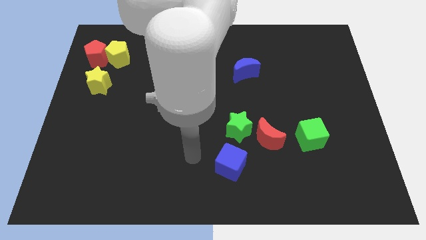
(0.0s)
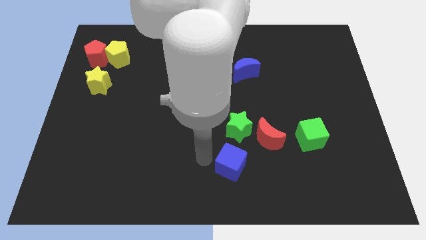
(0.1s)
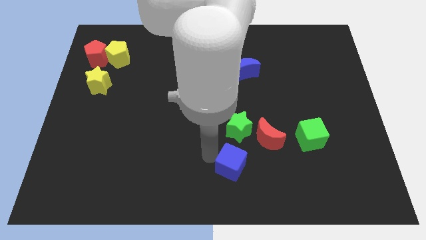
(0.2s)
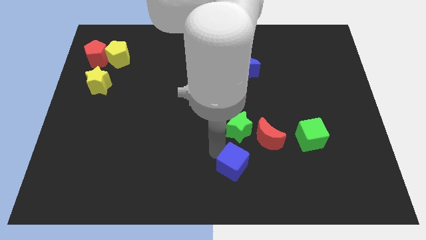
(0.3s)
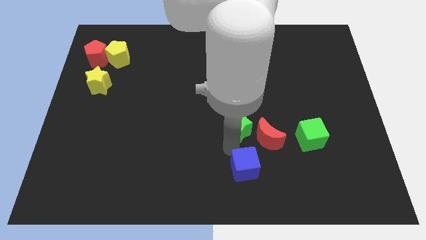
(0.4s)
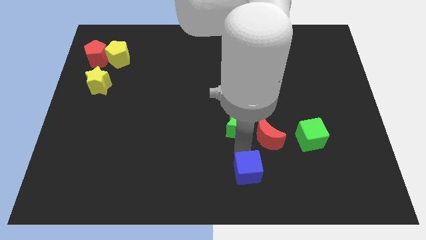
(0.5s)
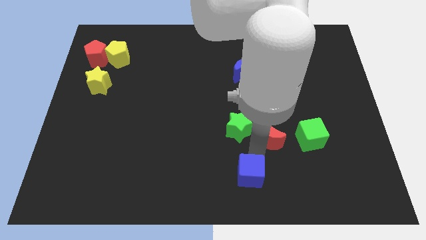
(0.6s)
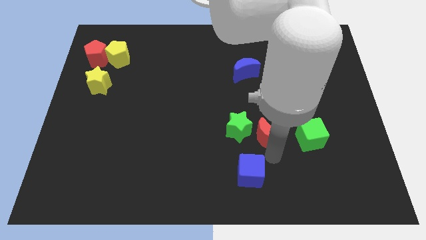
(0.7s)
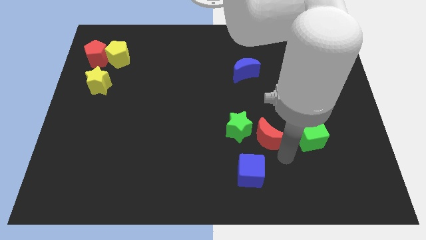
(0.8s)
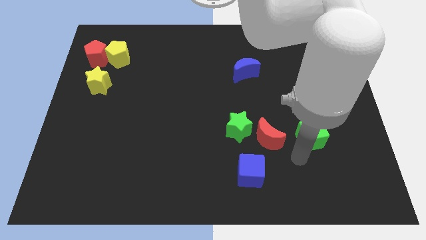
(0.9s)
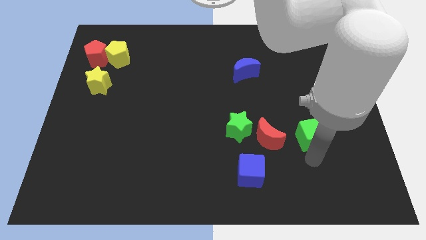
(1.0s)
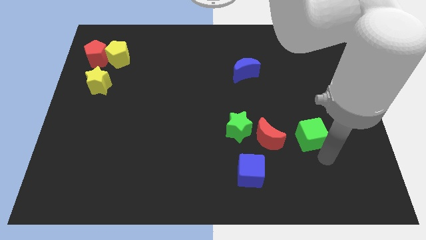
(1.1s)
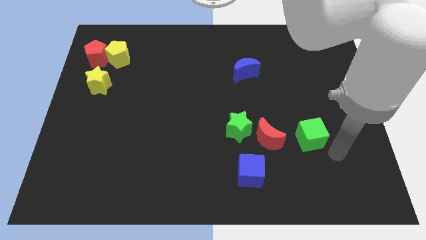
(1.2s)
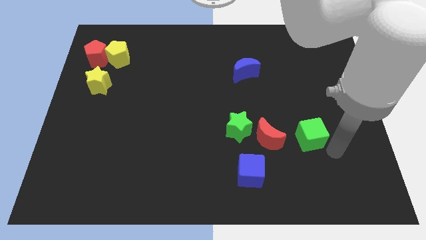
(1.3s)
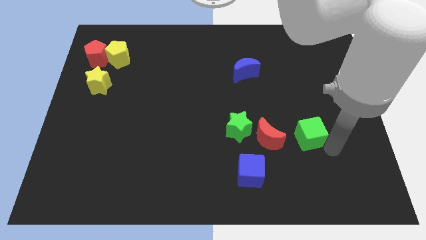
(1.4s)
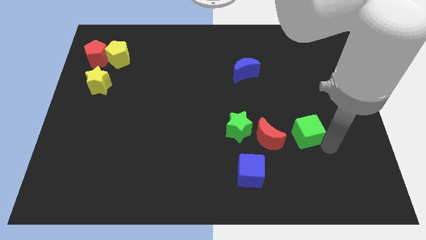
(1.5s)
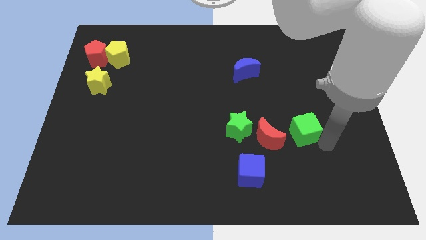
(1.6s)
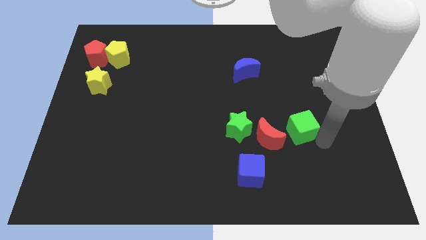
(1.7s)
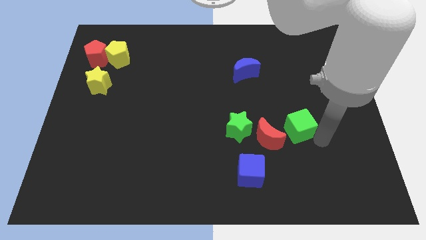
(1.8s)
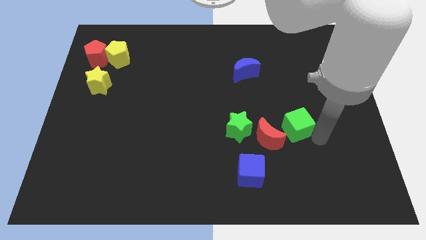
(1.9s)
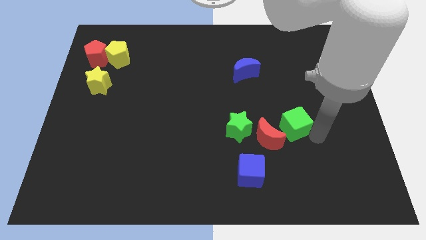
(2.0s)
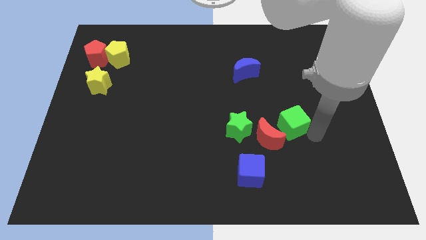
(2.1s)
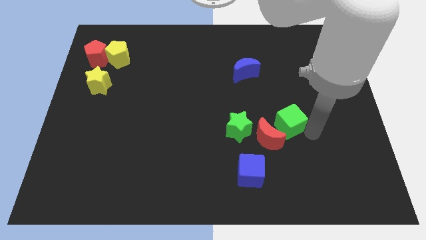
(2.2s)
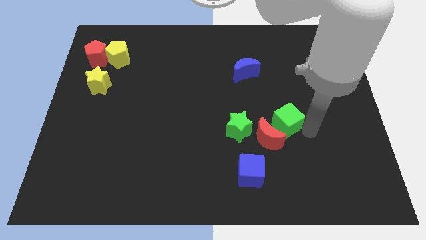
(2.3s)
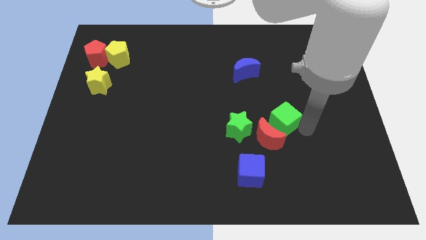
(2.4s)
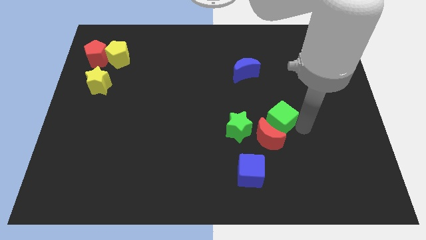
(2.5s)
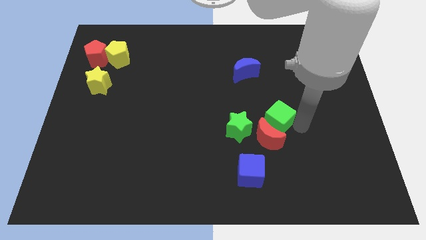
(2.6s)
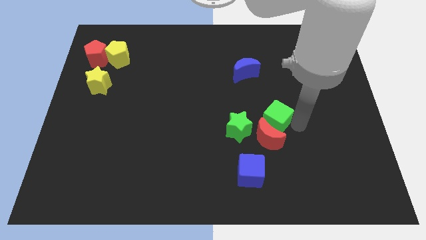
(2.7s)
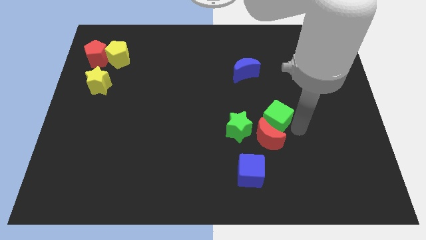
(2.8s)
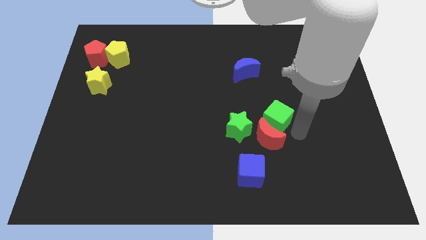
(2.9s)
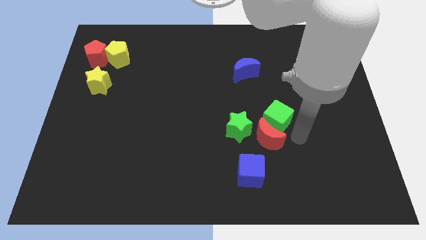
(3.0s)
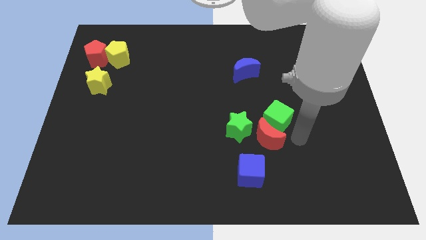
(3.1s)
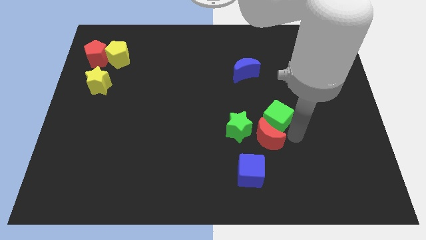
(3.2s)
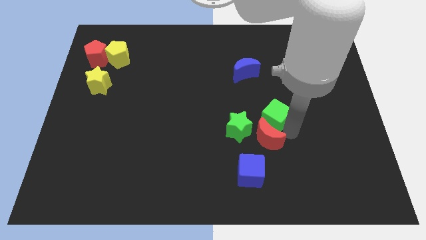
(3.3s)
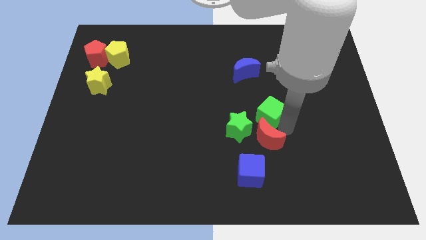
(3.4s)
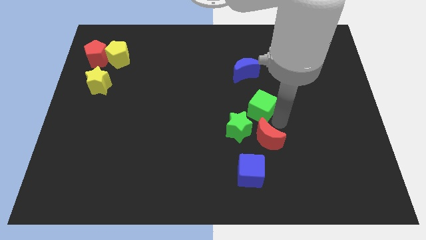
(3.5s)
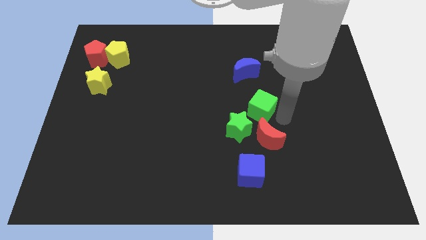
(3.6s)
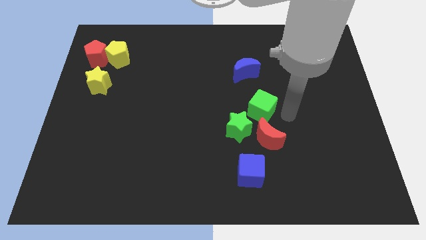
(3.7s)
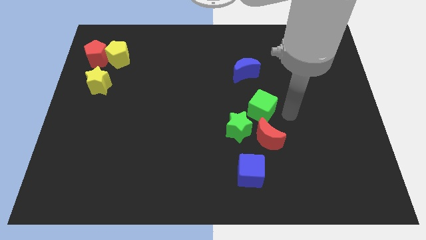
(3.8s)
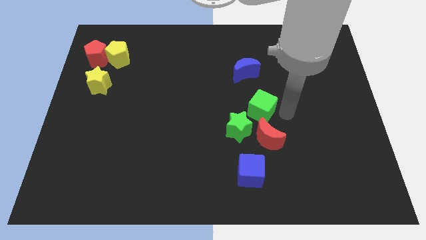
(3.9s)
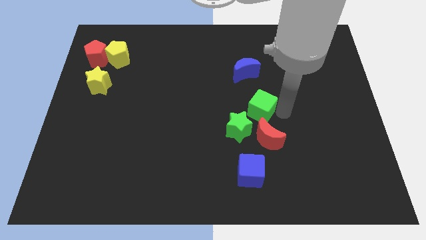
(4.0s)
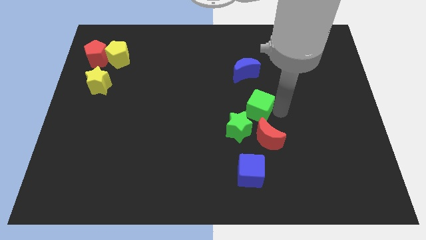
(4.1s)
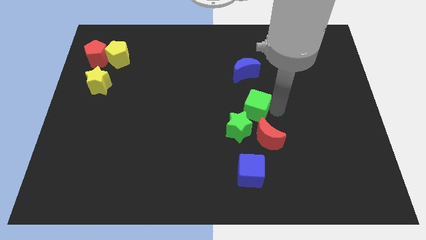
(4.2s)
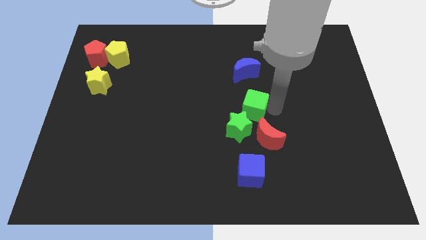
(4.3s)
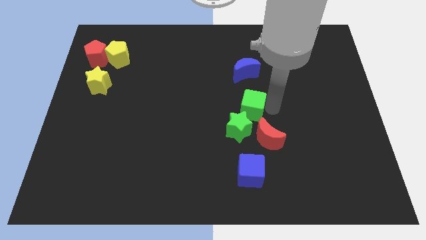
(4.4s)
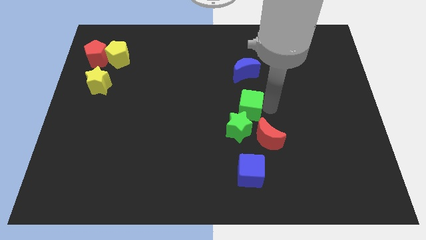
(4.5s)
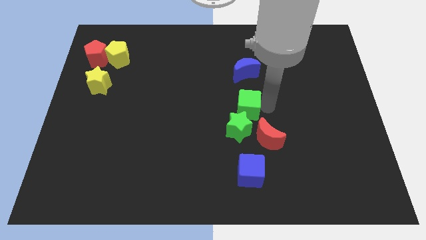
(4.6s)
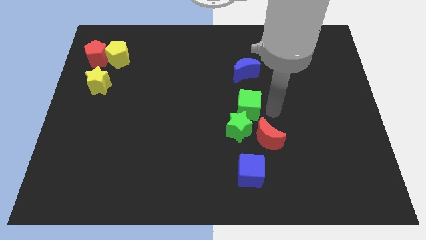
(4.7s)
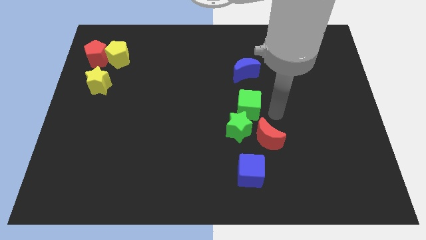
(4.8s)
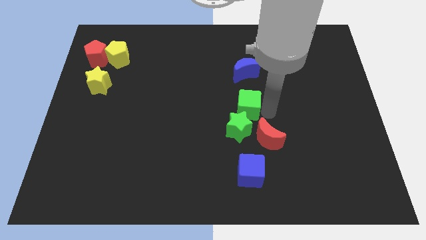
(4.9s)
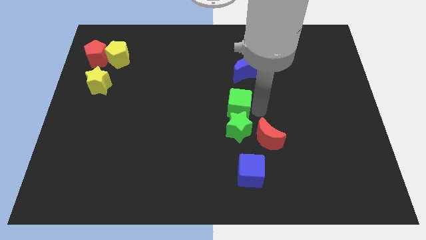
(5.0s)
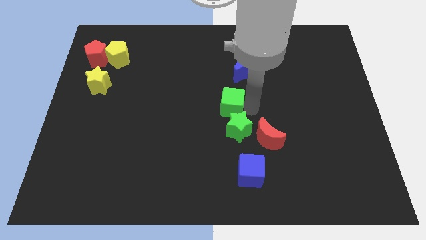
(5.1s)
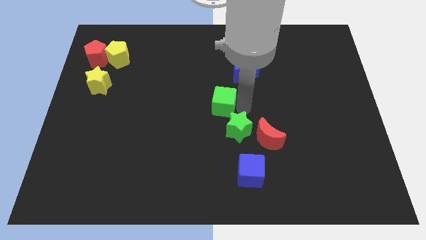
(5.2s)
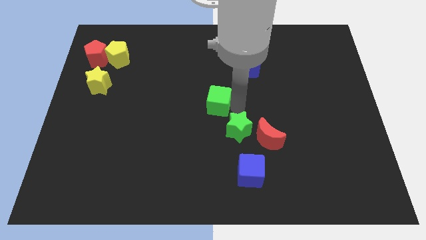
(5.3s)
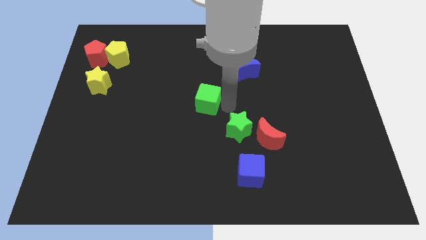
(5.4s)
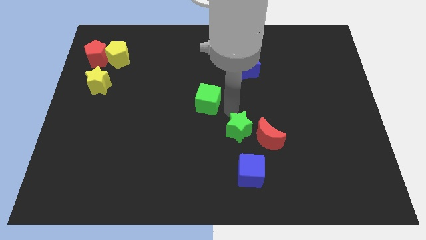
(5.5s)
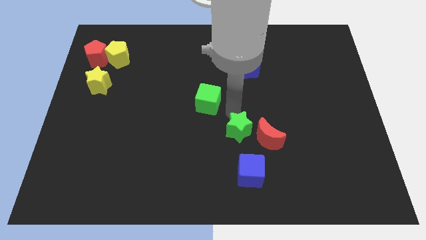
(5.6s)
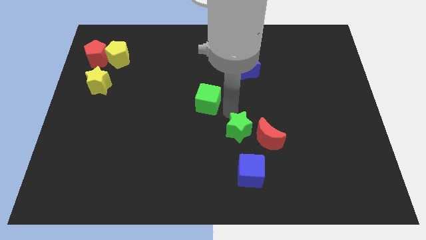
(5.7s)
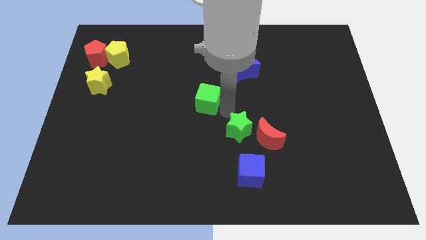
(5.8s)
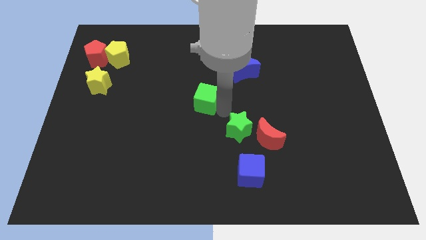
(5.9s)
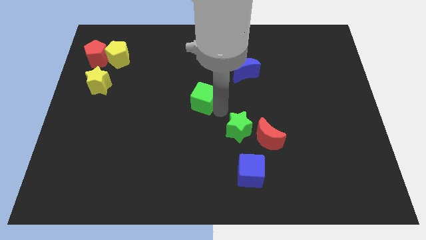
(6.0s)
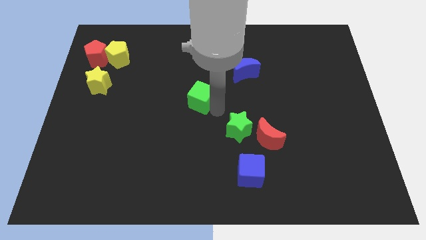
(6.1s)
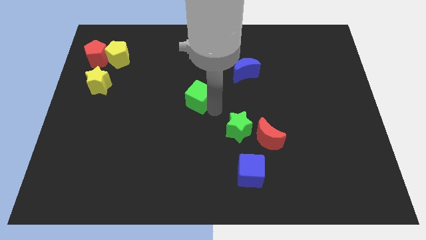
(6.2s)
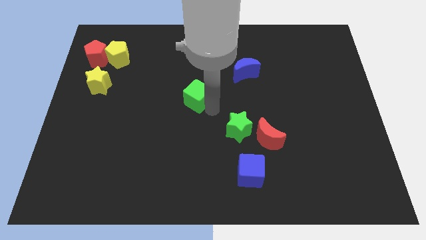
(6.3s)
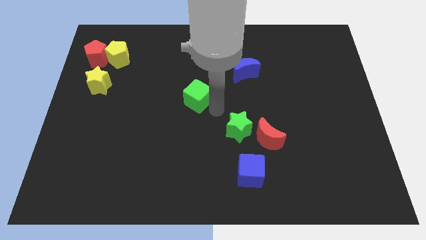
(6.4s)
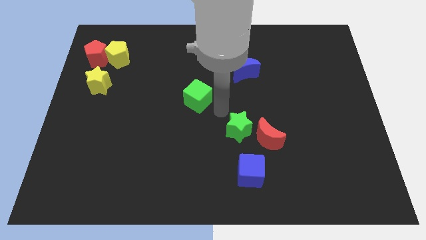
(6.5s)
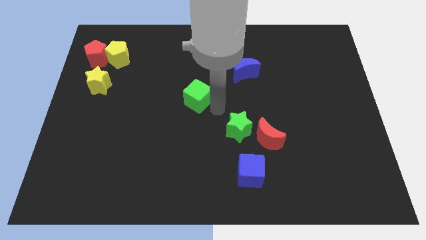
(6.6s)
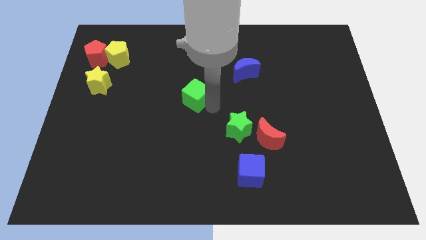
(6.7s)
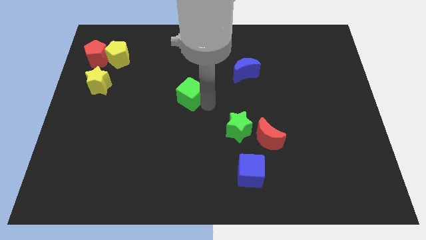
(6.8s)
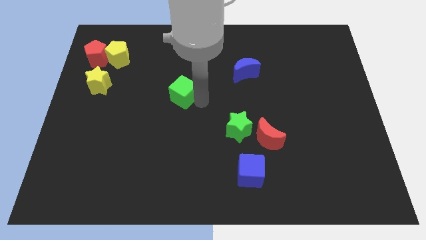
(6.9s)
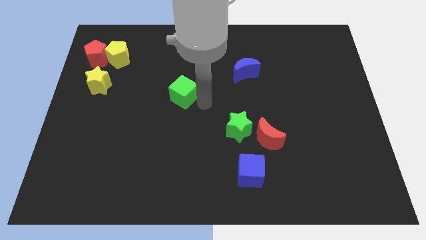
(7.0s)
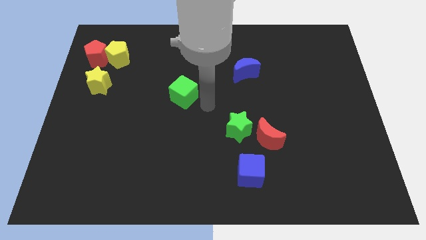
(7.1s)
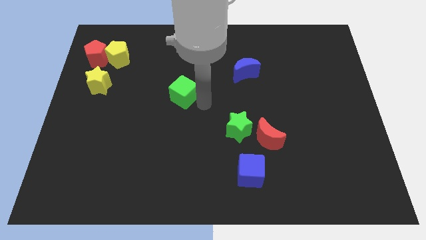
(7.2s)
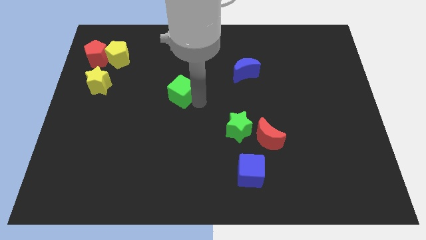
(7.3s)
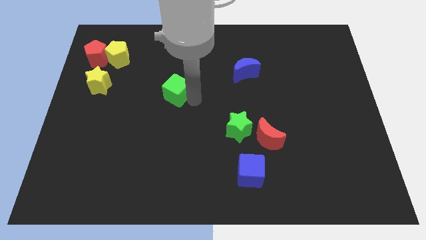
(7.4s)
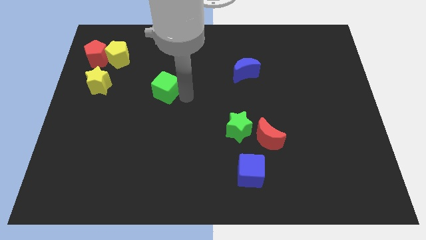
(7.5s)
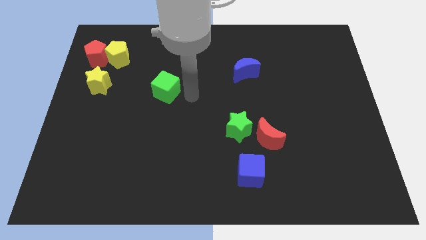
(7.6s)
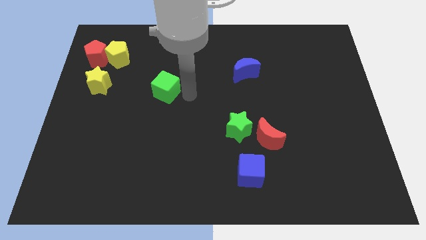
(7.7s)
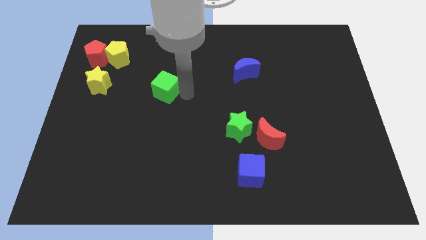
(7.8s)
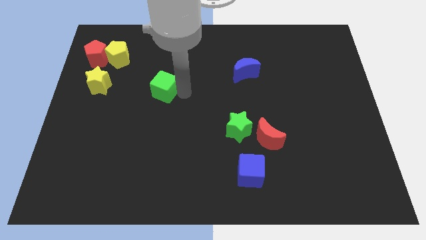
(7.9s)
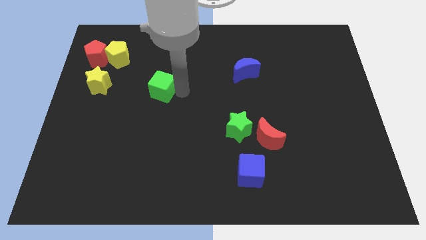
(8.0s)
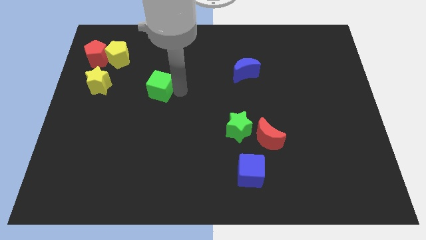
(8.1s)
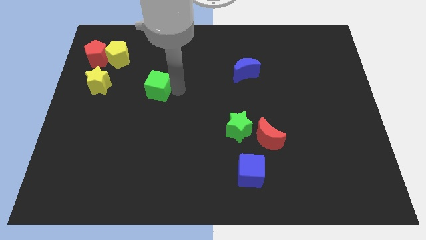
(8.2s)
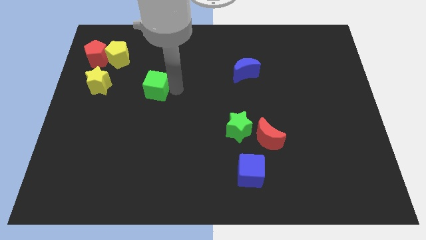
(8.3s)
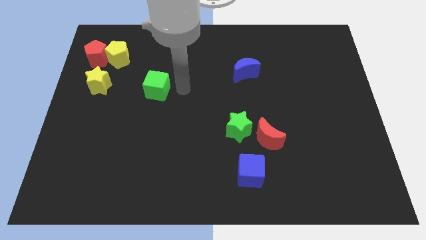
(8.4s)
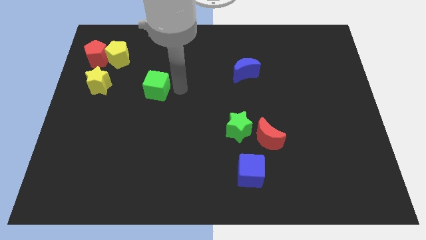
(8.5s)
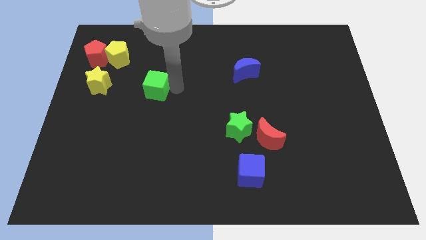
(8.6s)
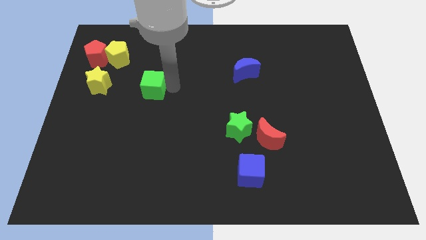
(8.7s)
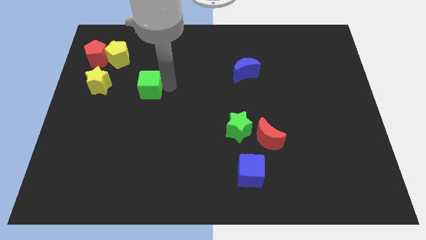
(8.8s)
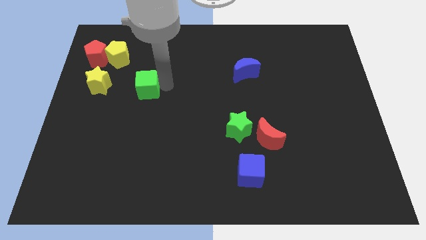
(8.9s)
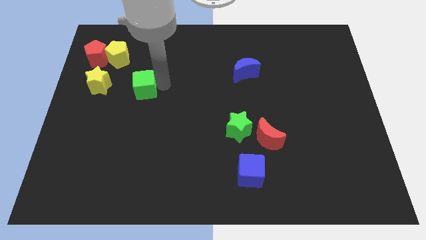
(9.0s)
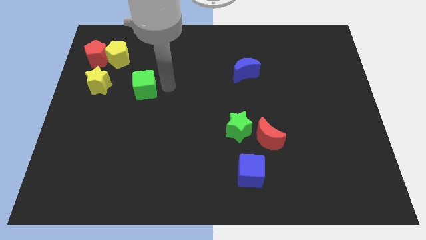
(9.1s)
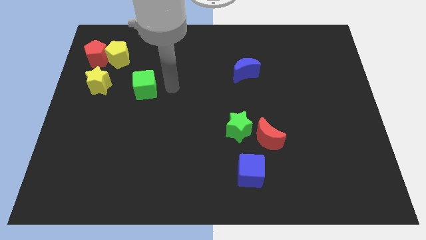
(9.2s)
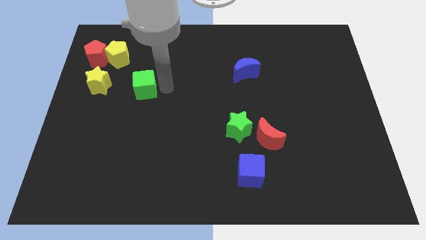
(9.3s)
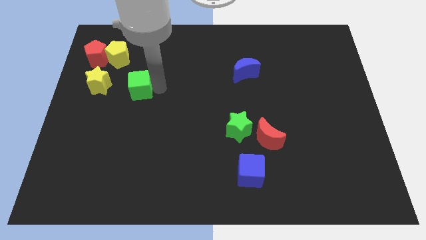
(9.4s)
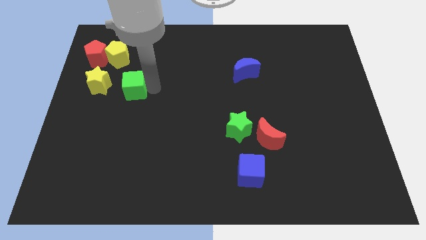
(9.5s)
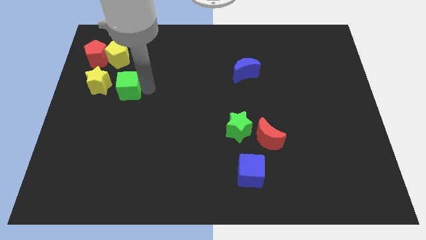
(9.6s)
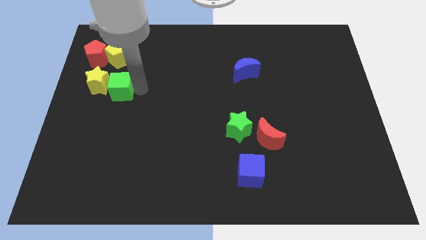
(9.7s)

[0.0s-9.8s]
move the green cube towards the yellow star
